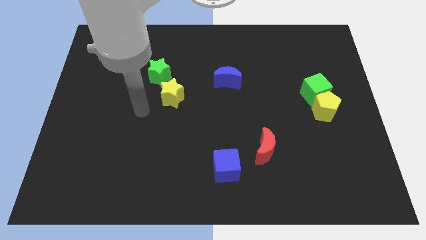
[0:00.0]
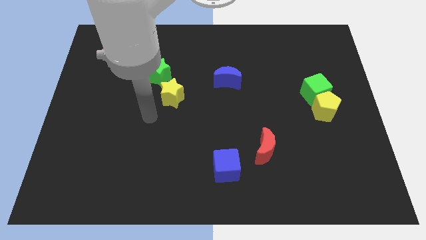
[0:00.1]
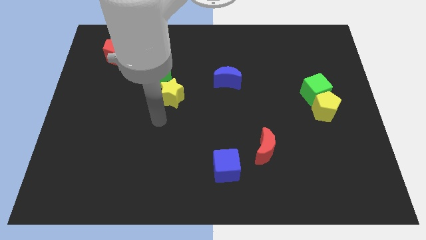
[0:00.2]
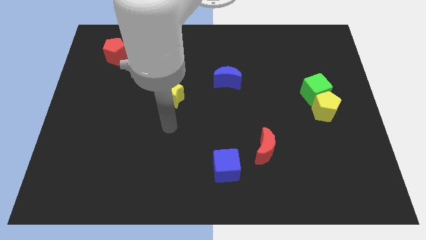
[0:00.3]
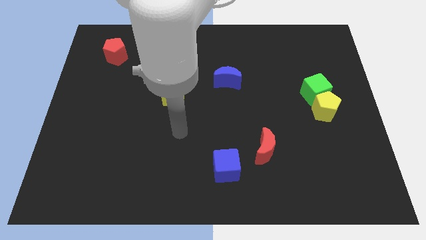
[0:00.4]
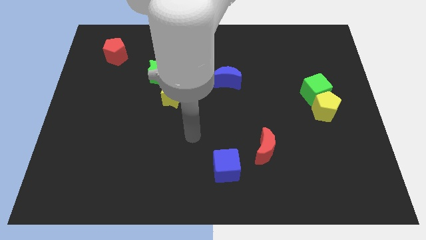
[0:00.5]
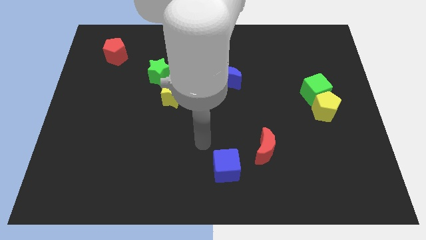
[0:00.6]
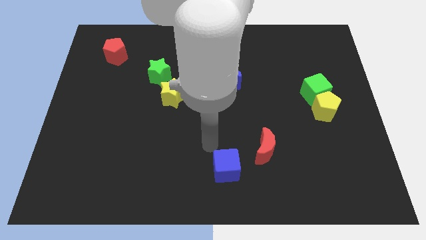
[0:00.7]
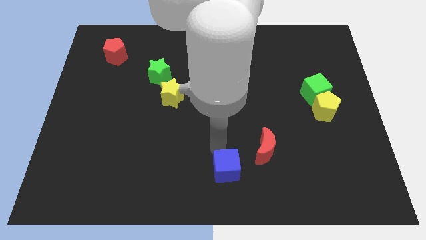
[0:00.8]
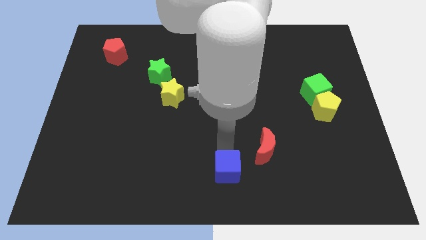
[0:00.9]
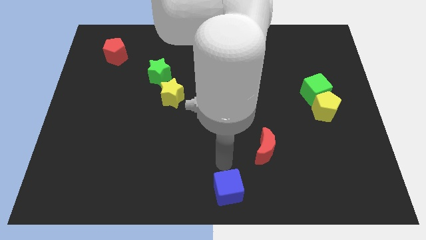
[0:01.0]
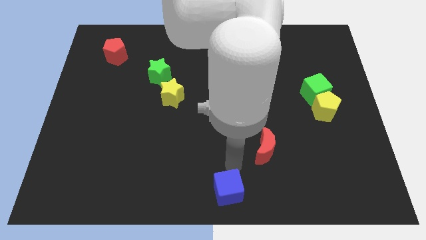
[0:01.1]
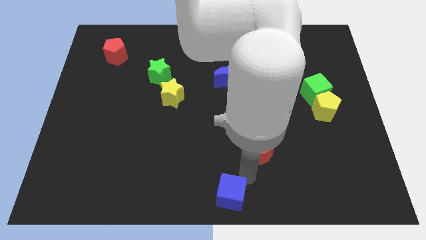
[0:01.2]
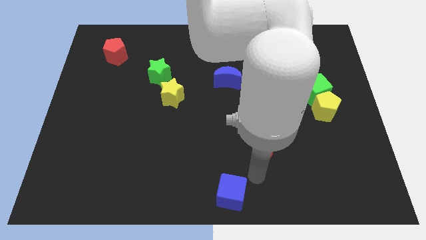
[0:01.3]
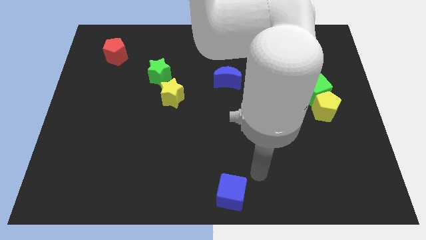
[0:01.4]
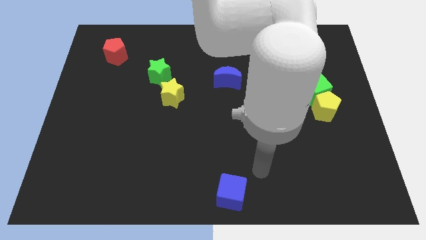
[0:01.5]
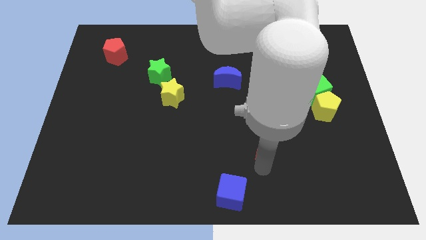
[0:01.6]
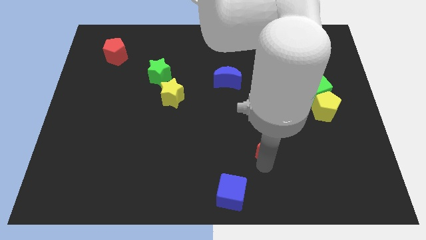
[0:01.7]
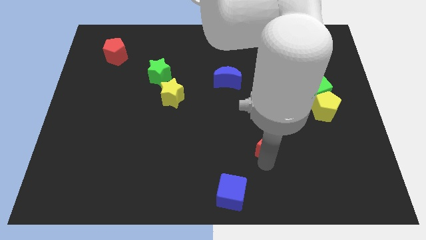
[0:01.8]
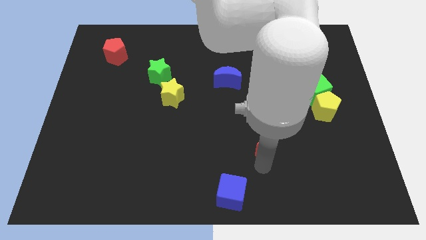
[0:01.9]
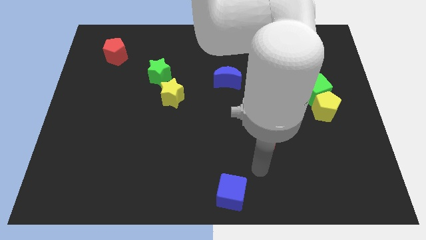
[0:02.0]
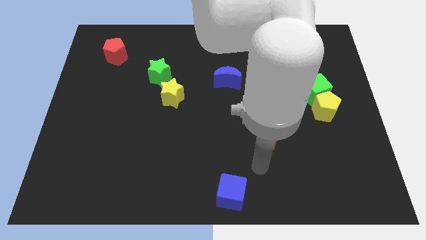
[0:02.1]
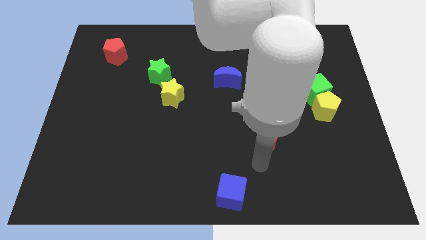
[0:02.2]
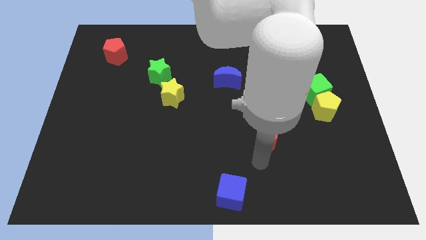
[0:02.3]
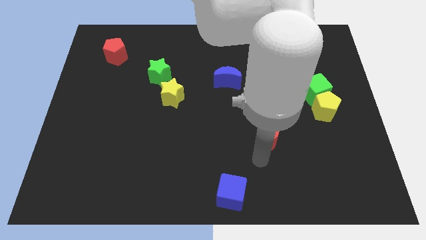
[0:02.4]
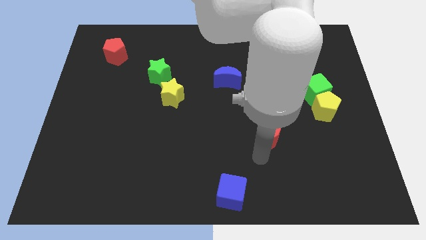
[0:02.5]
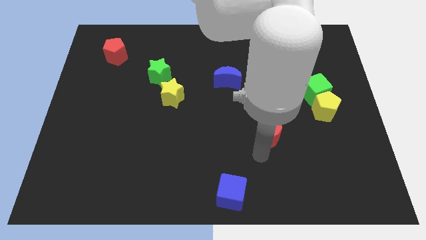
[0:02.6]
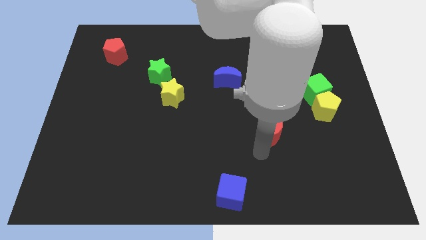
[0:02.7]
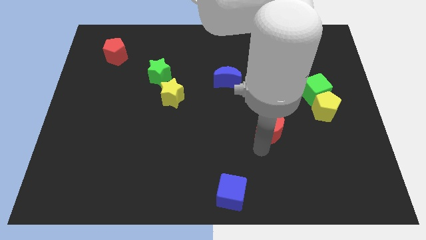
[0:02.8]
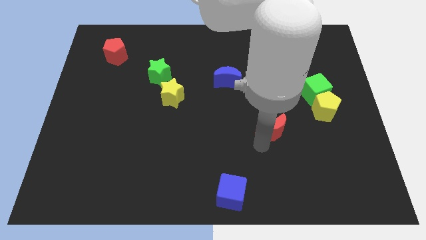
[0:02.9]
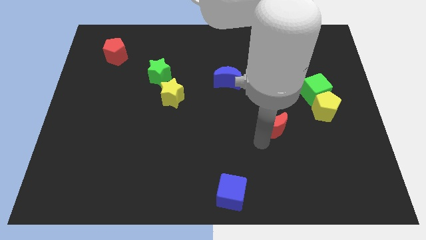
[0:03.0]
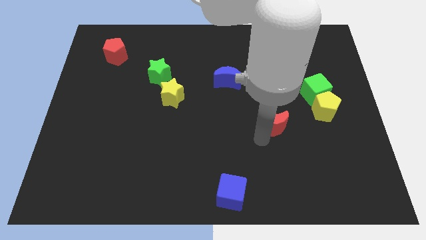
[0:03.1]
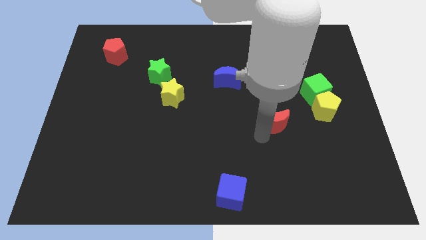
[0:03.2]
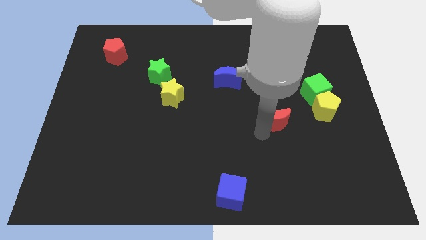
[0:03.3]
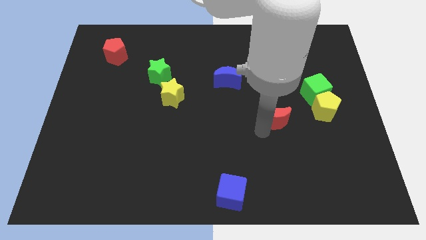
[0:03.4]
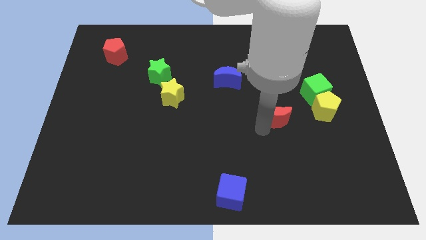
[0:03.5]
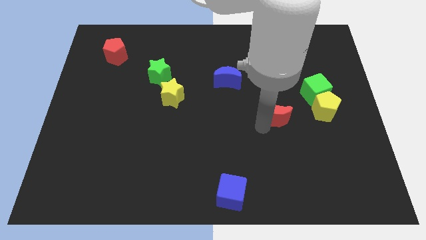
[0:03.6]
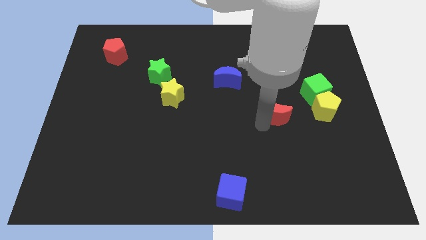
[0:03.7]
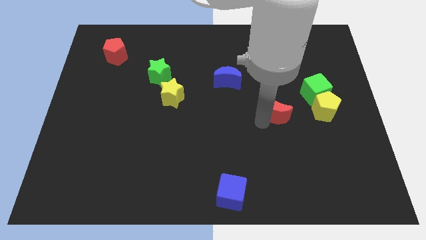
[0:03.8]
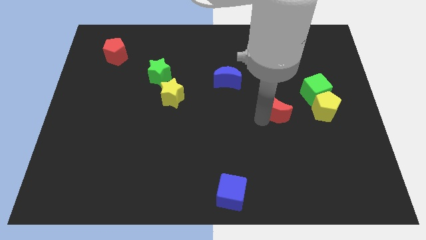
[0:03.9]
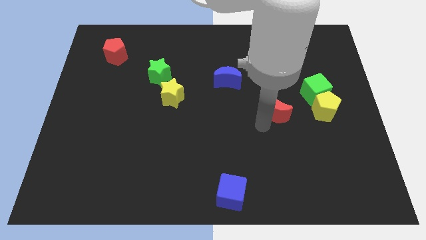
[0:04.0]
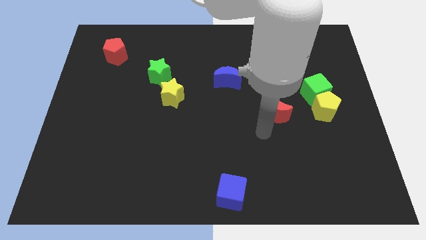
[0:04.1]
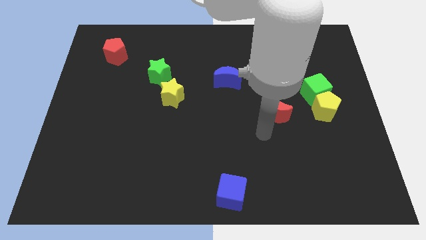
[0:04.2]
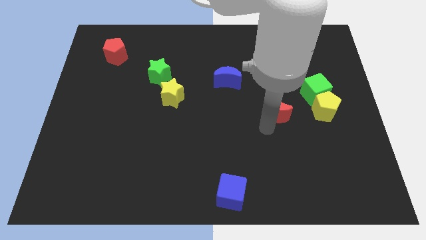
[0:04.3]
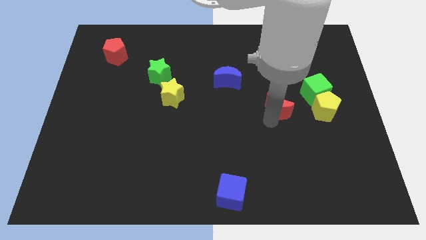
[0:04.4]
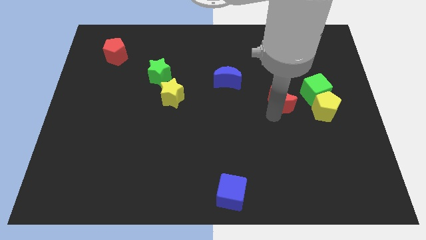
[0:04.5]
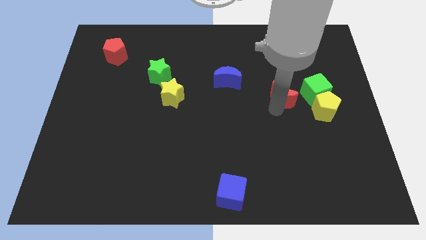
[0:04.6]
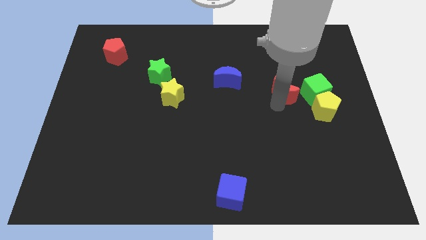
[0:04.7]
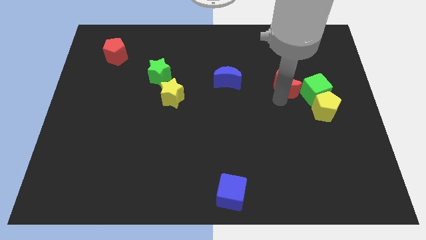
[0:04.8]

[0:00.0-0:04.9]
move the red moon to the top left of the green cube

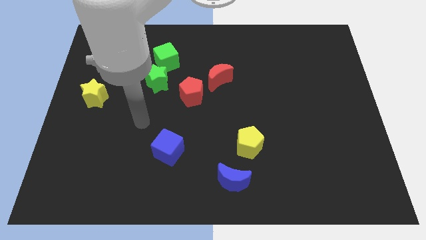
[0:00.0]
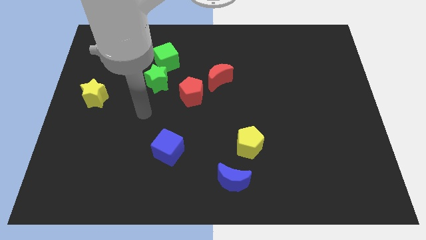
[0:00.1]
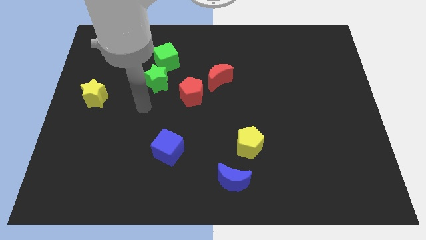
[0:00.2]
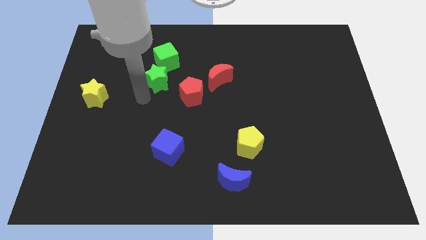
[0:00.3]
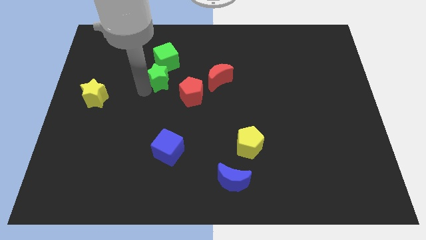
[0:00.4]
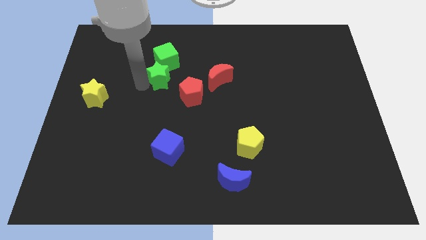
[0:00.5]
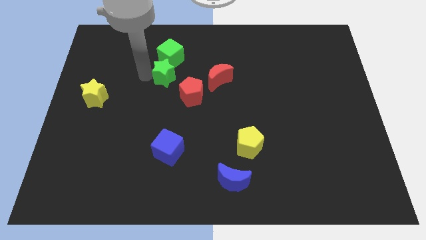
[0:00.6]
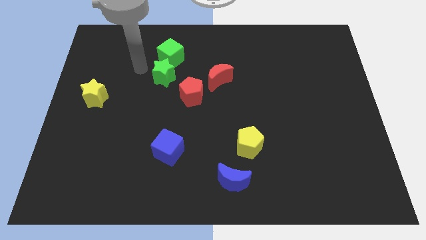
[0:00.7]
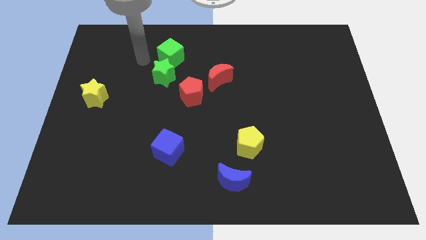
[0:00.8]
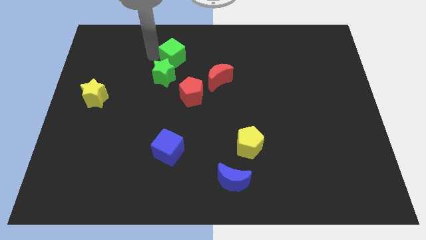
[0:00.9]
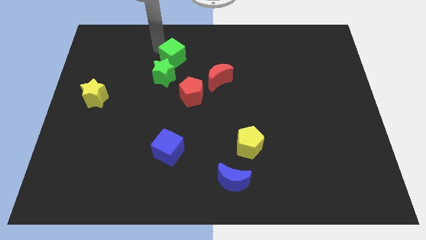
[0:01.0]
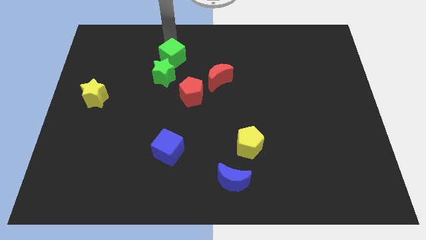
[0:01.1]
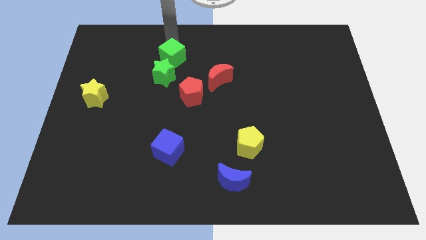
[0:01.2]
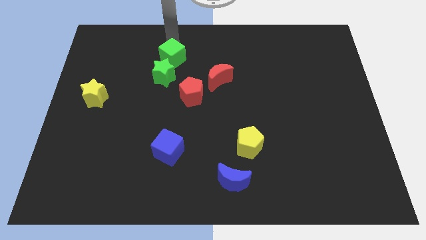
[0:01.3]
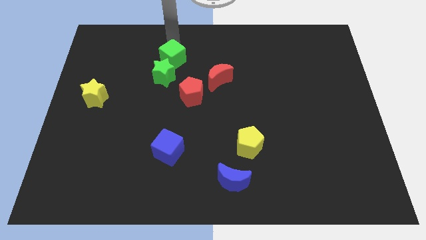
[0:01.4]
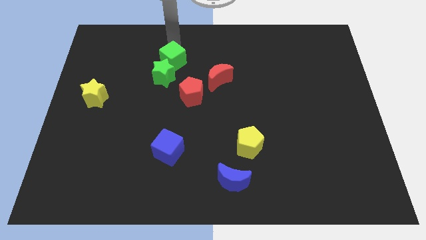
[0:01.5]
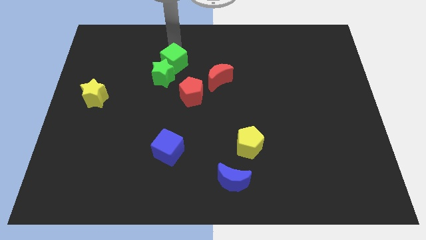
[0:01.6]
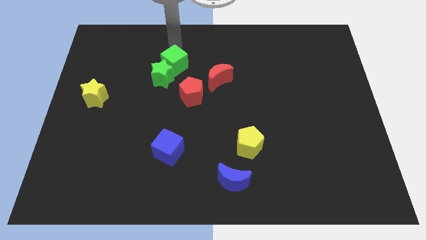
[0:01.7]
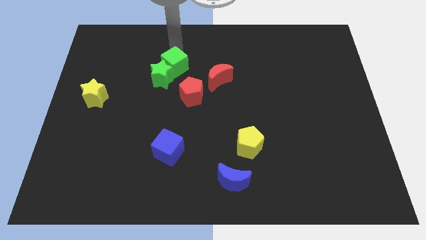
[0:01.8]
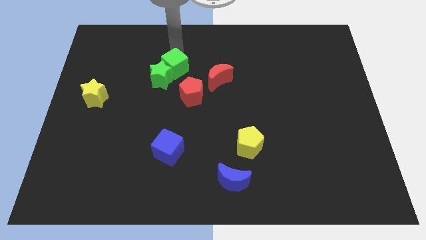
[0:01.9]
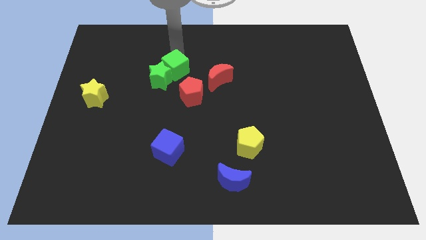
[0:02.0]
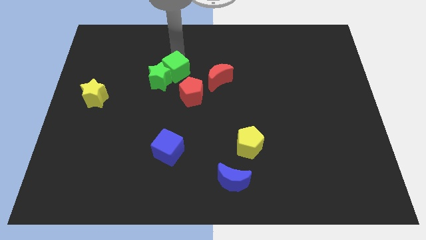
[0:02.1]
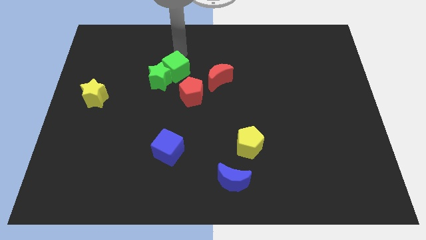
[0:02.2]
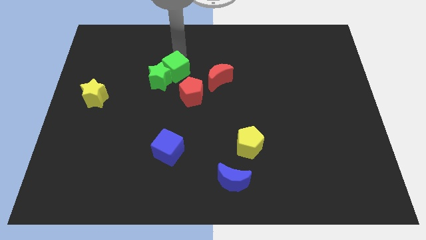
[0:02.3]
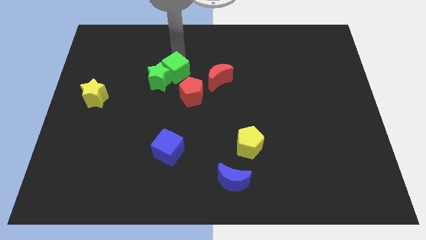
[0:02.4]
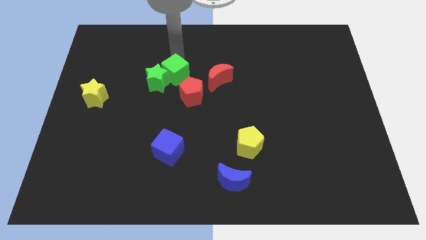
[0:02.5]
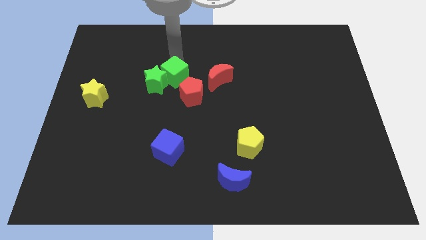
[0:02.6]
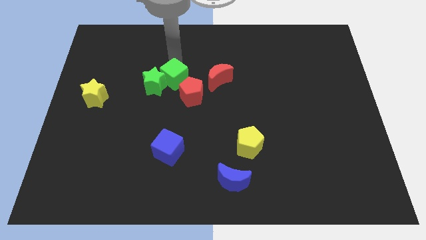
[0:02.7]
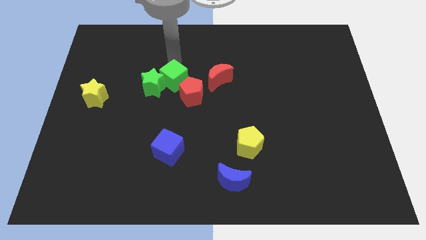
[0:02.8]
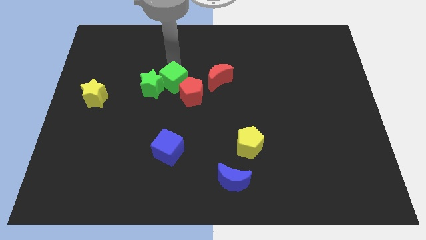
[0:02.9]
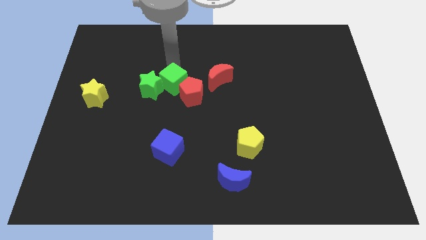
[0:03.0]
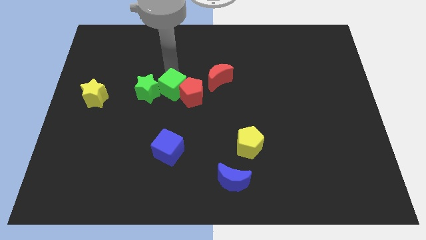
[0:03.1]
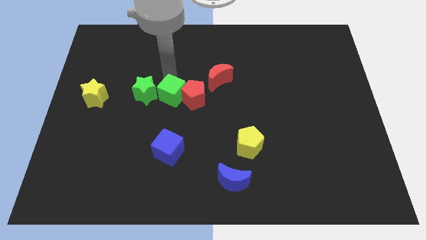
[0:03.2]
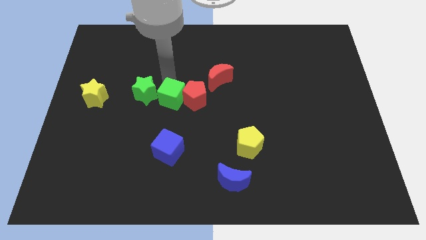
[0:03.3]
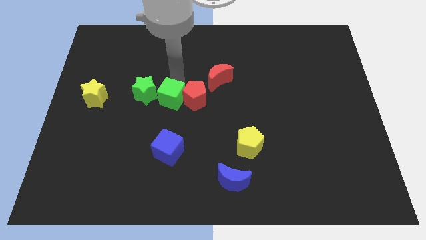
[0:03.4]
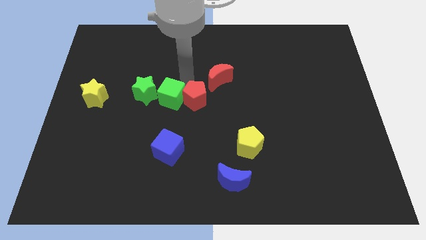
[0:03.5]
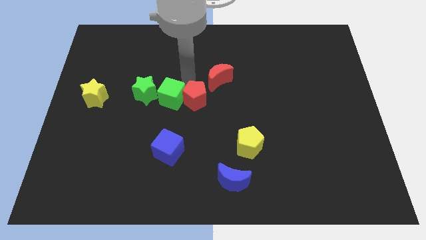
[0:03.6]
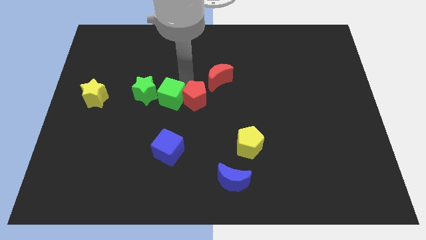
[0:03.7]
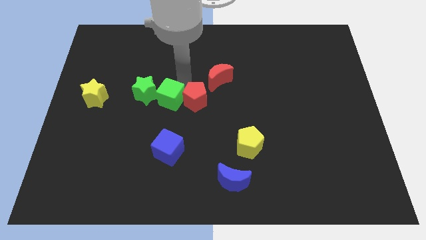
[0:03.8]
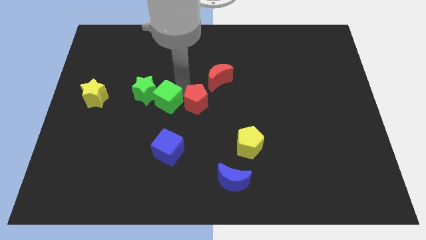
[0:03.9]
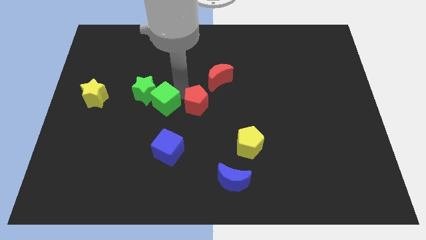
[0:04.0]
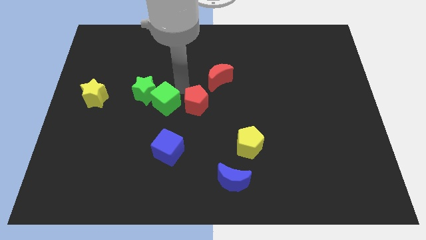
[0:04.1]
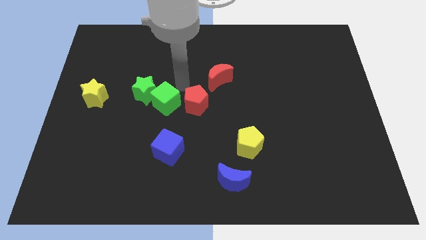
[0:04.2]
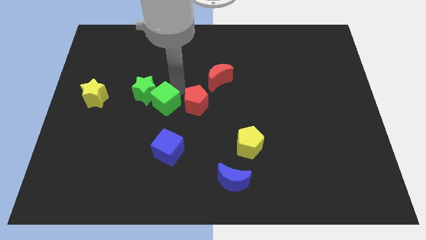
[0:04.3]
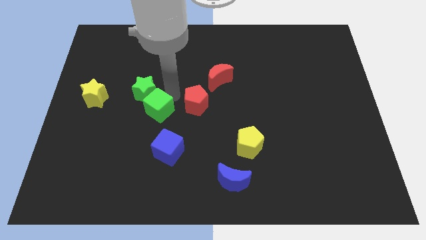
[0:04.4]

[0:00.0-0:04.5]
slide the green cube below the green star
